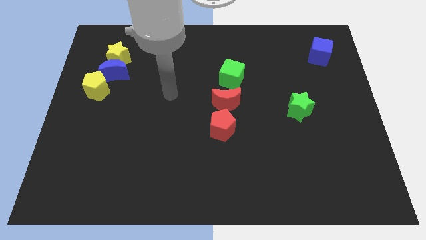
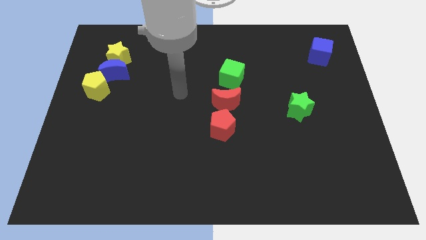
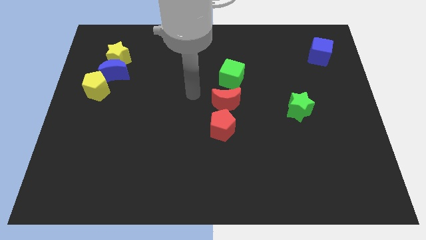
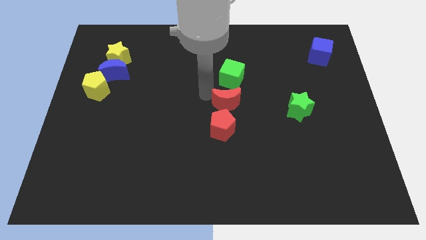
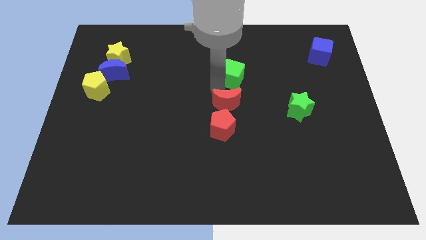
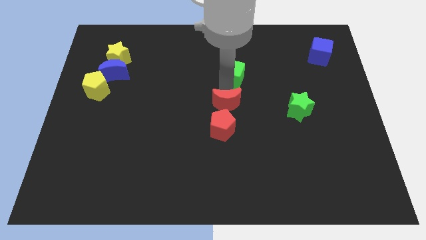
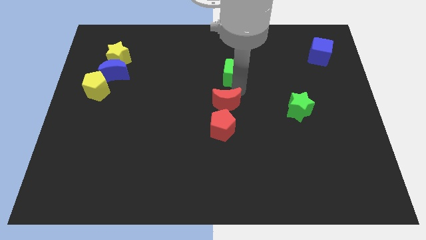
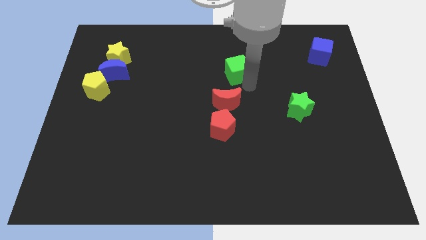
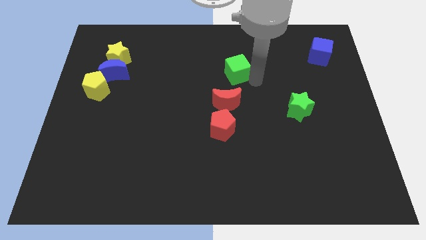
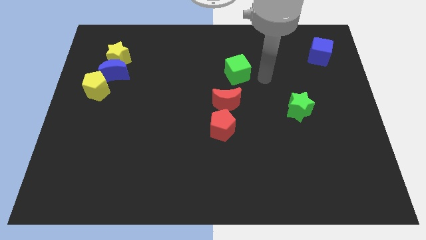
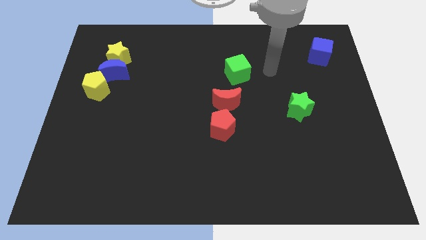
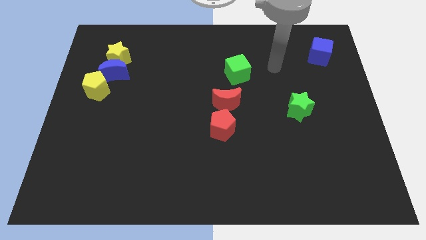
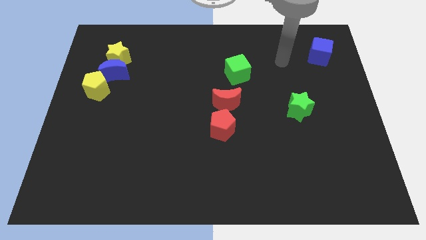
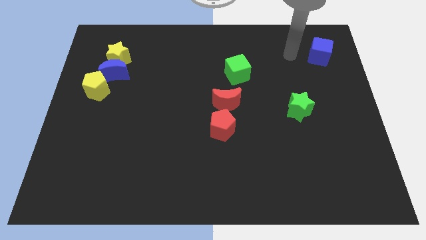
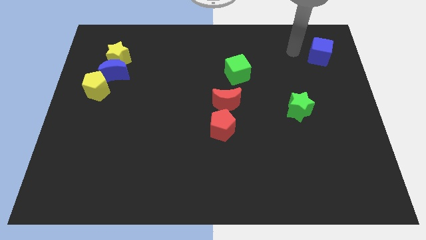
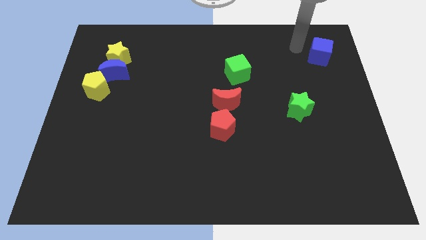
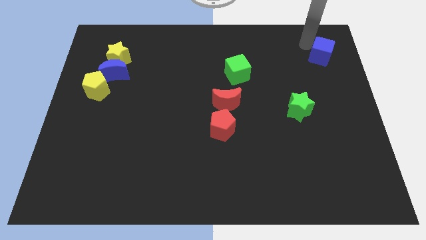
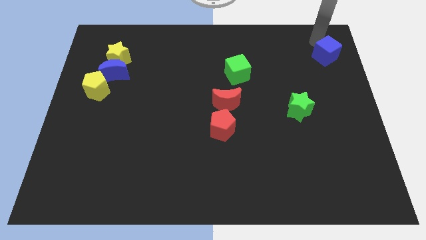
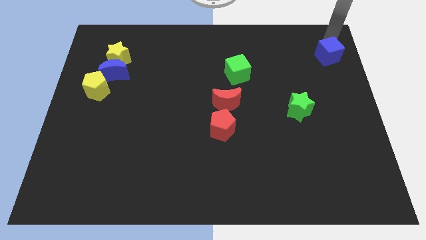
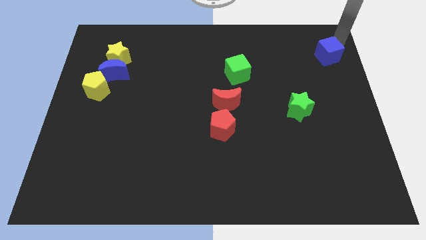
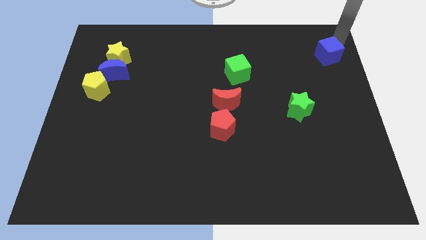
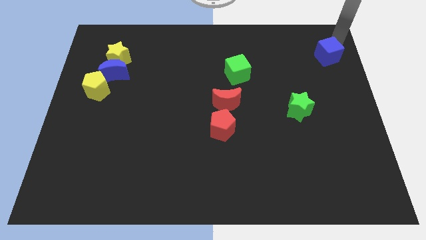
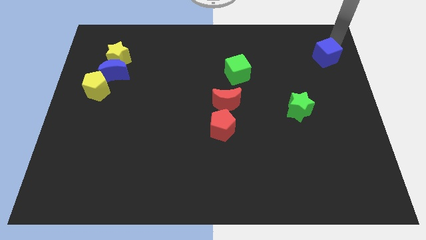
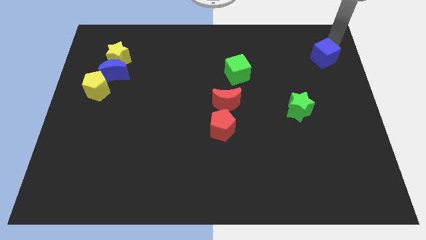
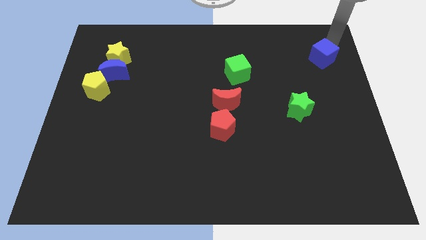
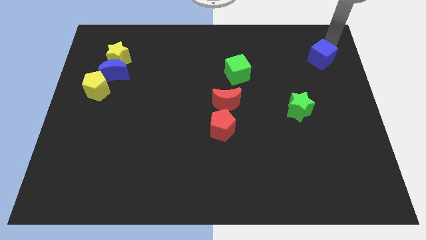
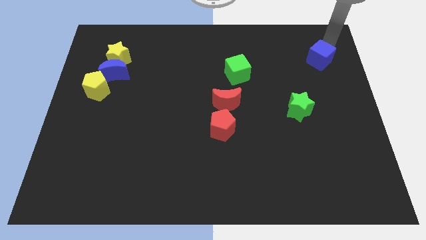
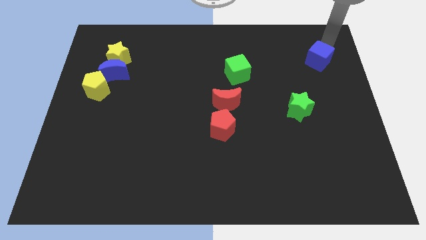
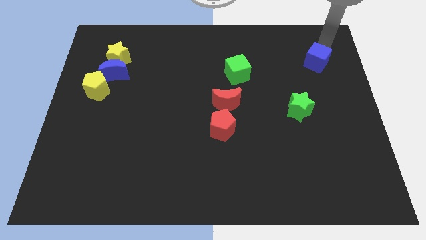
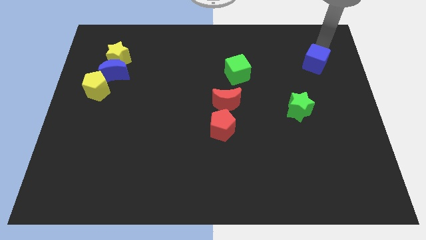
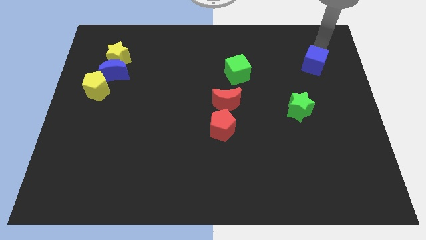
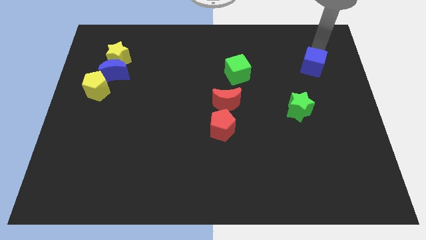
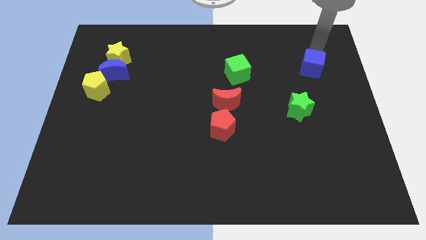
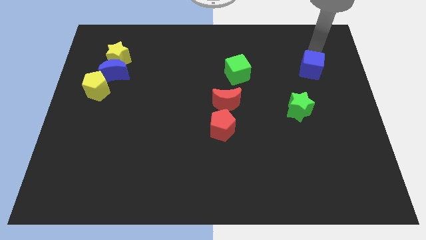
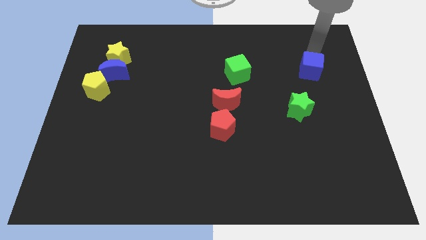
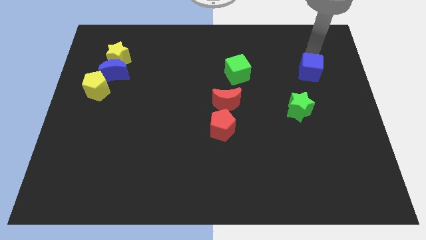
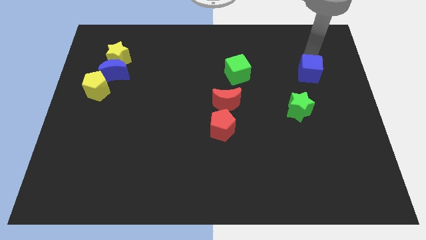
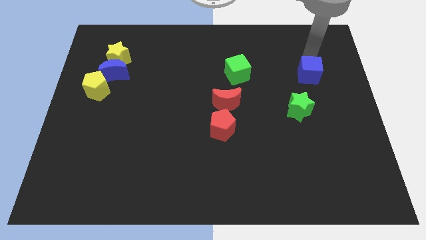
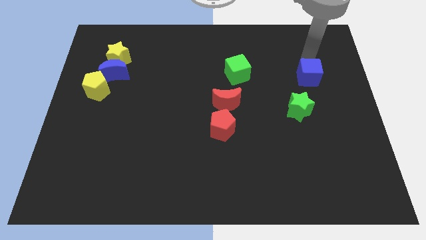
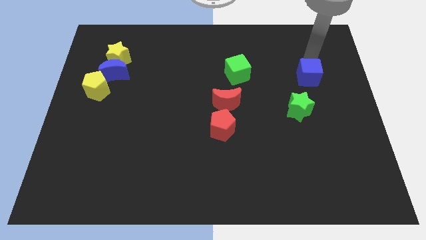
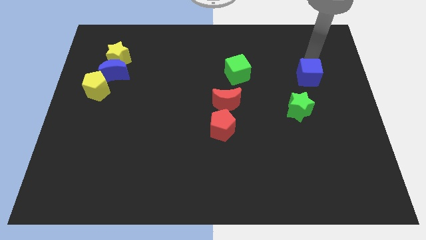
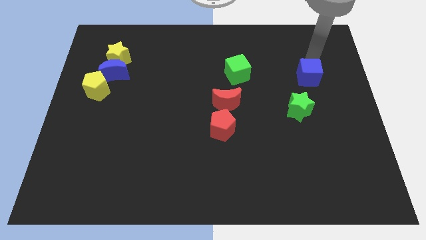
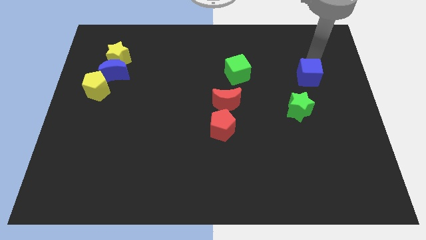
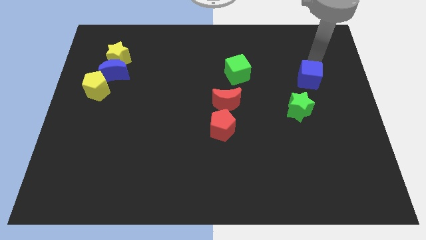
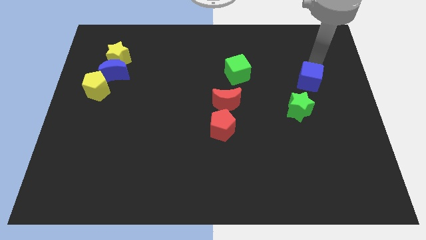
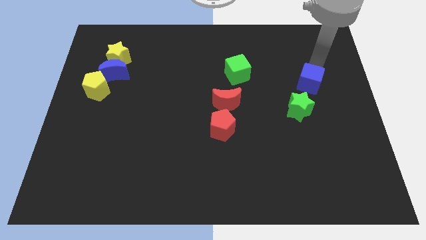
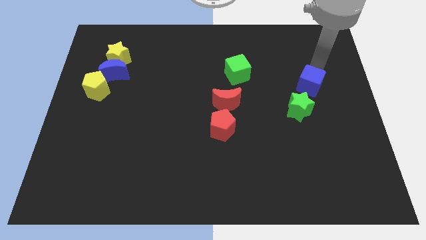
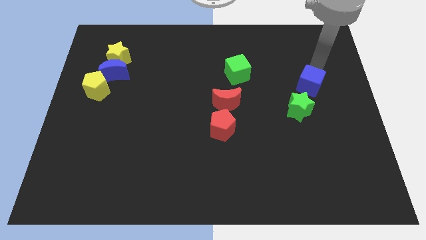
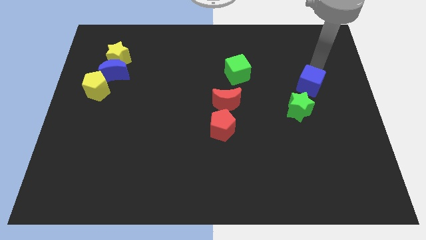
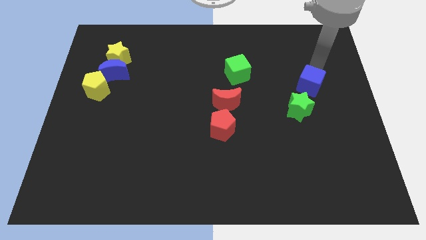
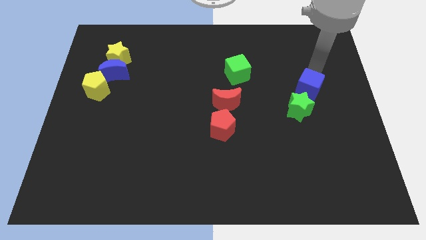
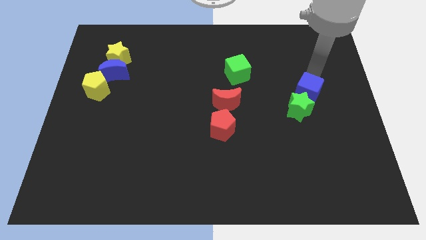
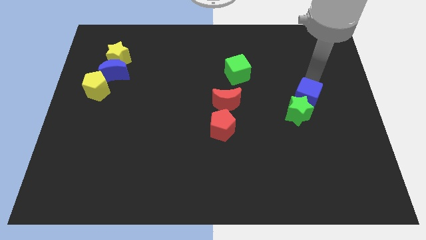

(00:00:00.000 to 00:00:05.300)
move the blue cube next to the green star

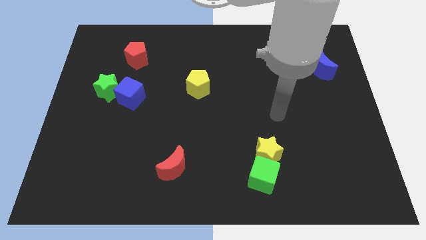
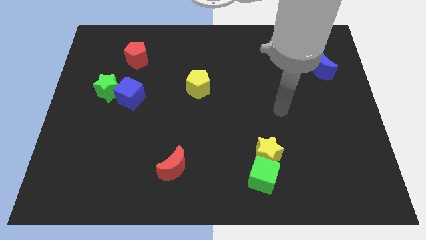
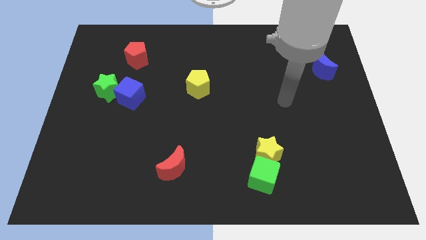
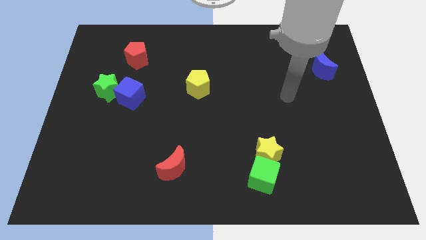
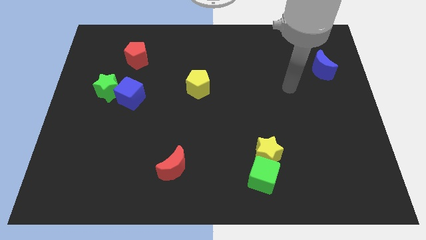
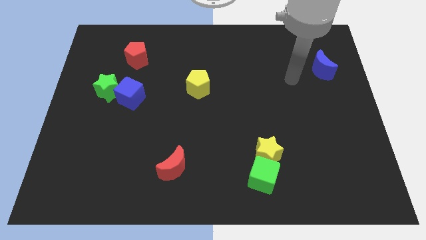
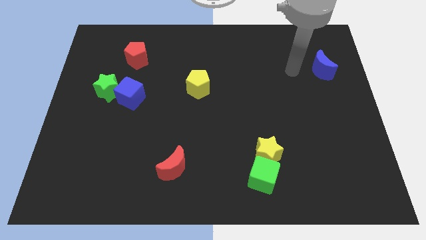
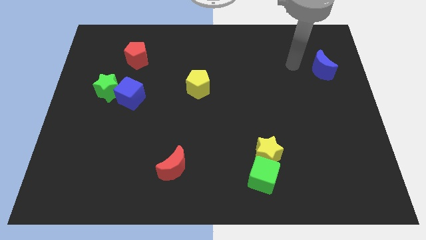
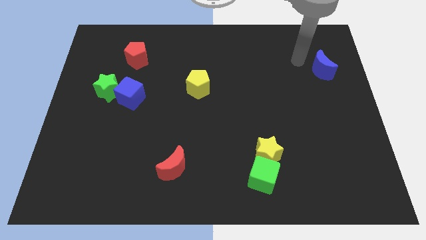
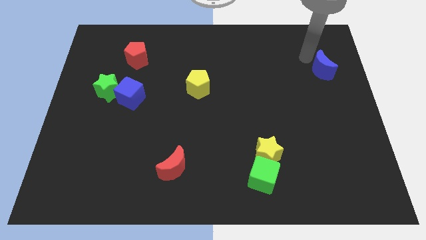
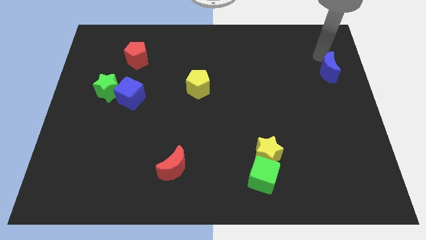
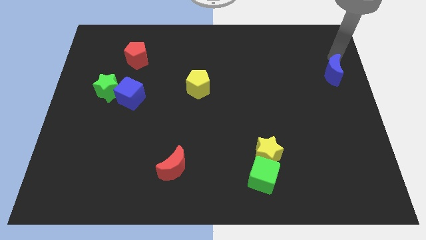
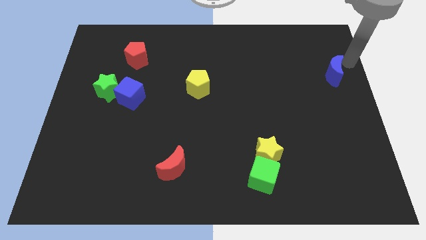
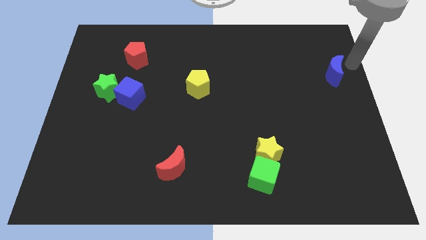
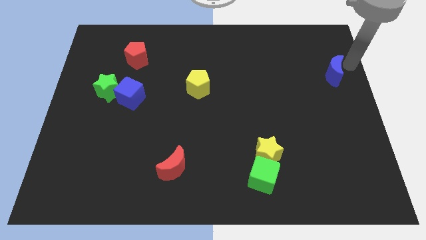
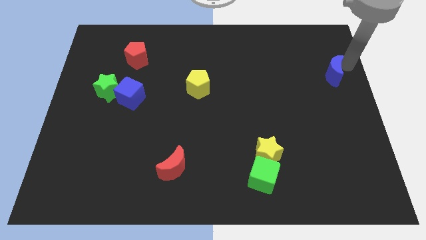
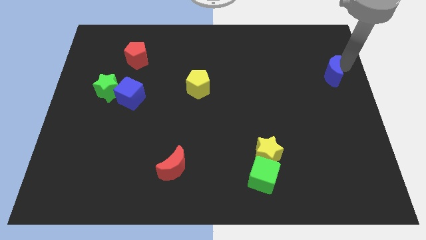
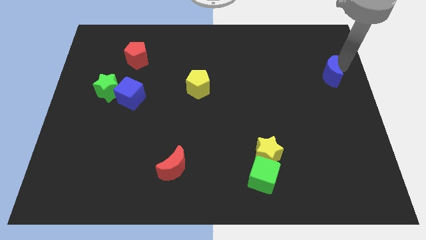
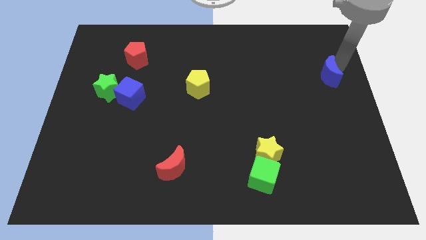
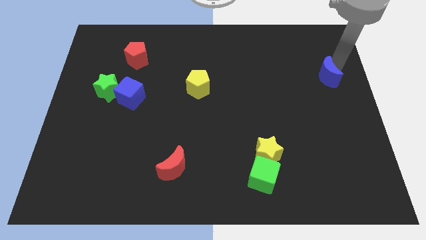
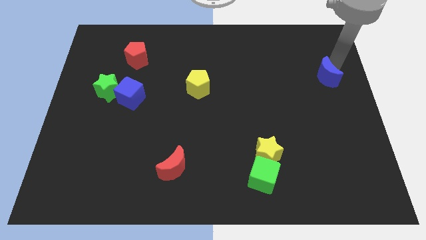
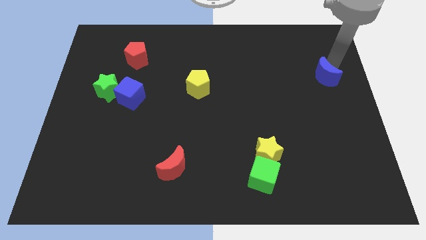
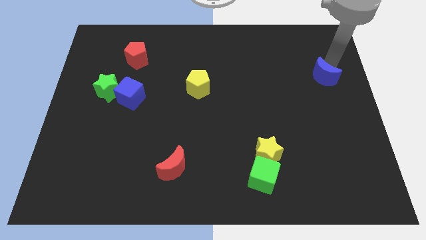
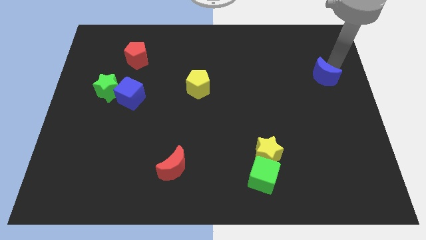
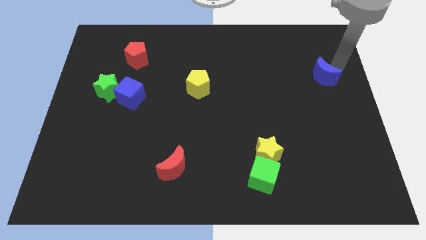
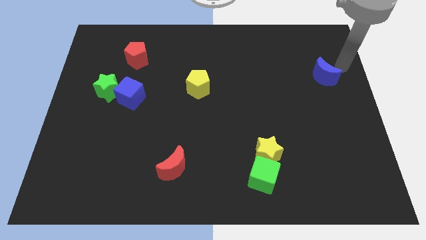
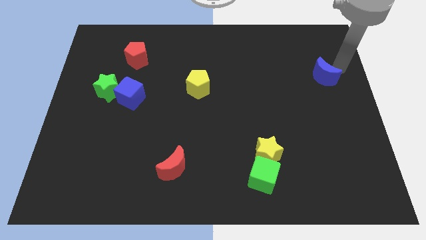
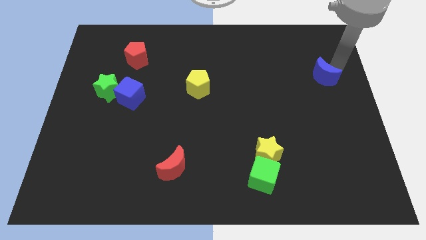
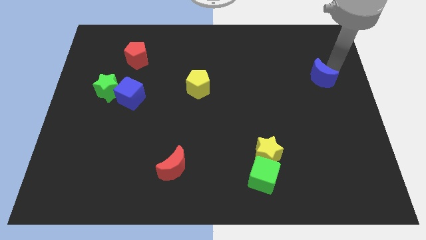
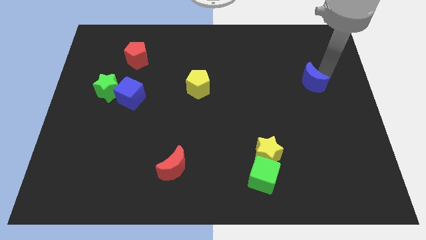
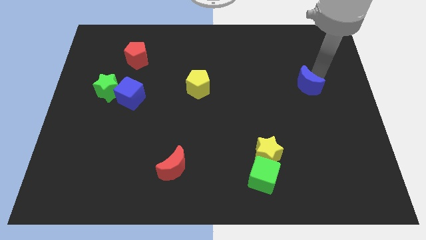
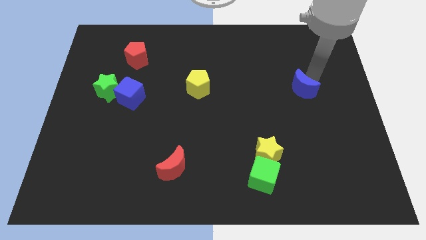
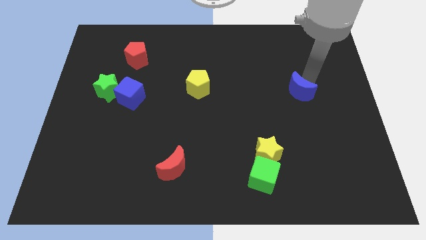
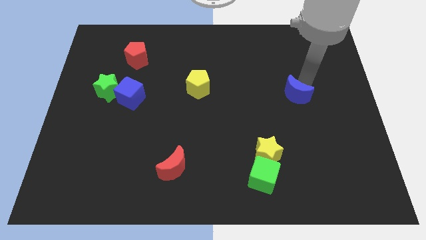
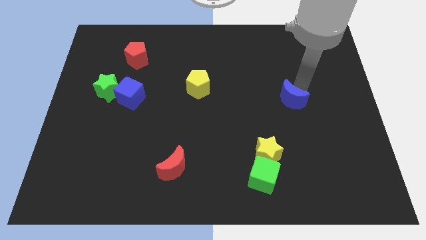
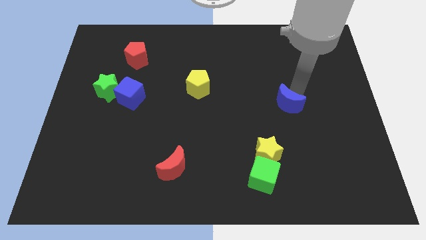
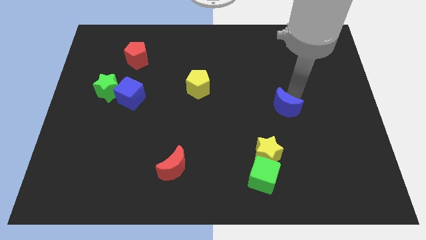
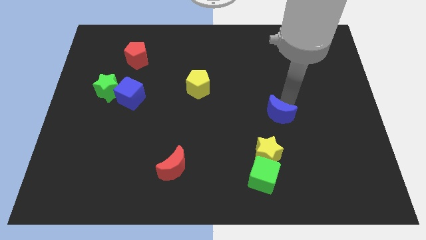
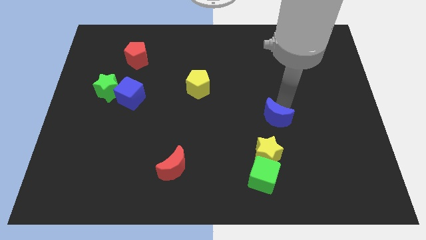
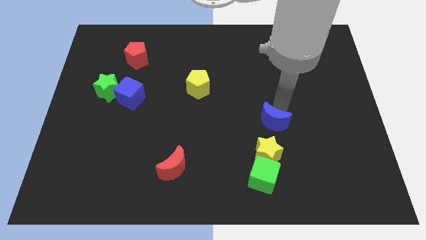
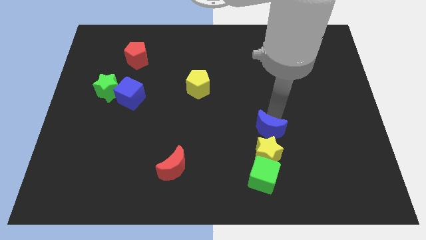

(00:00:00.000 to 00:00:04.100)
push the blue moon close to the yellow star
